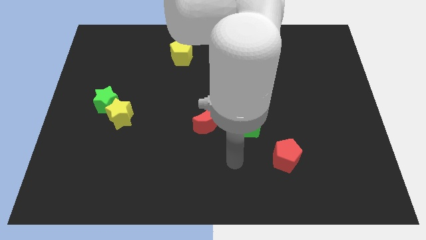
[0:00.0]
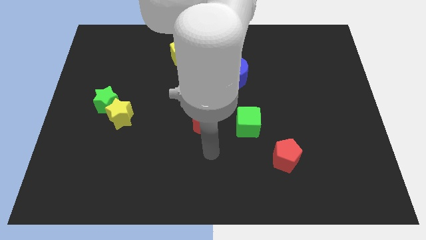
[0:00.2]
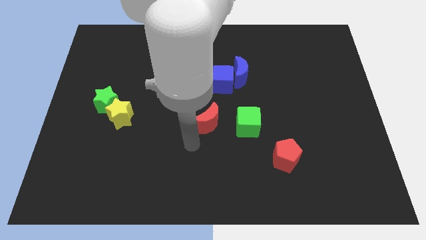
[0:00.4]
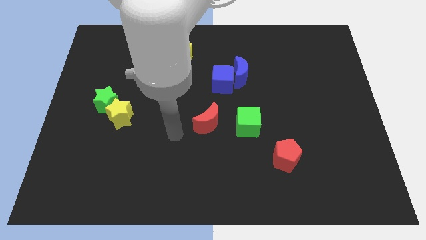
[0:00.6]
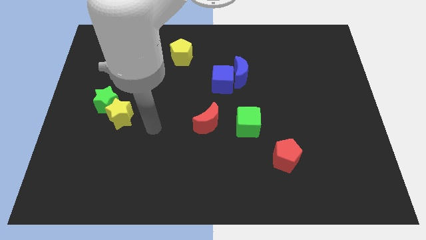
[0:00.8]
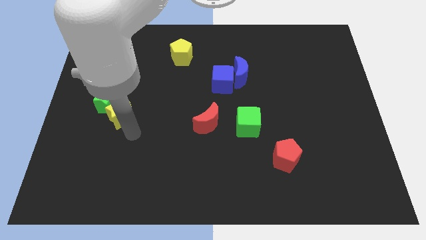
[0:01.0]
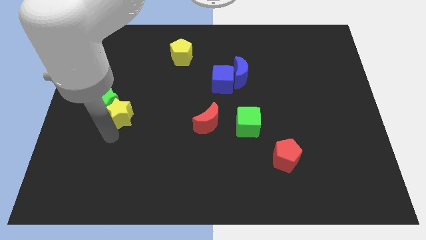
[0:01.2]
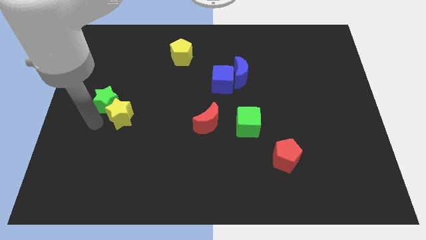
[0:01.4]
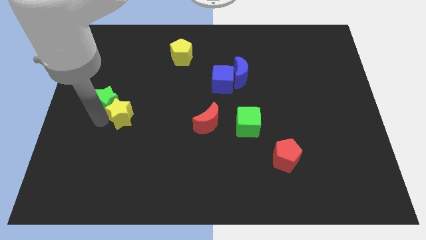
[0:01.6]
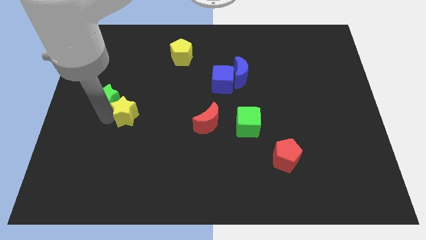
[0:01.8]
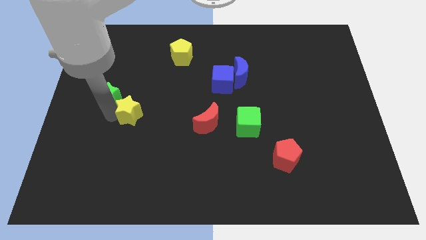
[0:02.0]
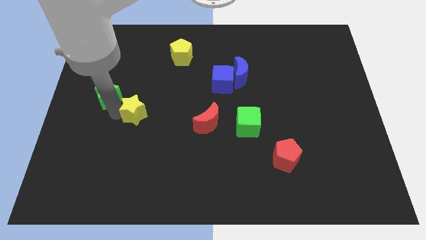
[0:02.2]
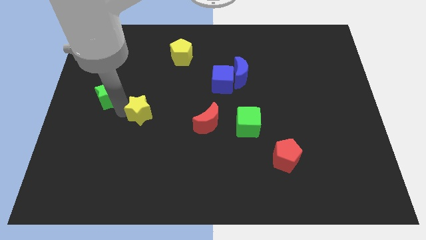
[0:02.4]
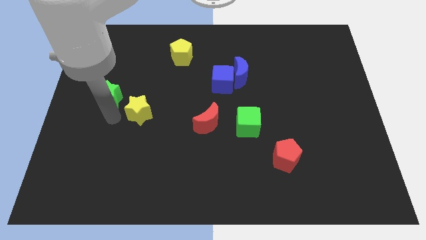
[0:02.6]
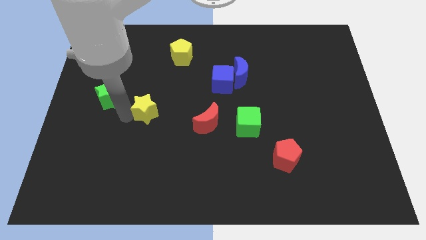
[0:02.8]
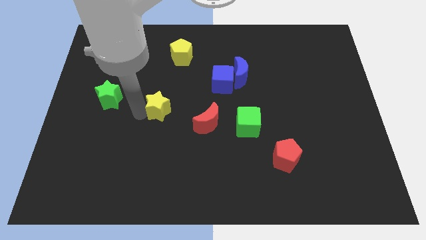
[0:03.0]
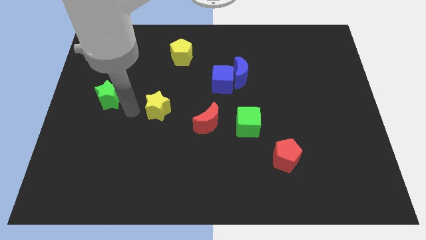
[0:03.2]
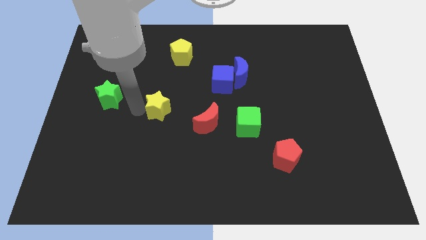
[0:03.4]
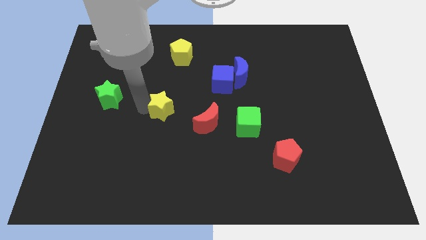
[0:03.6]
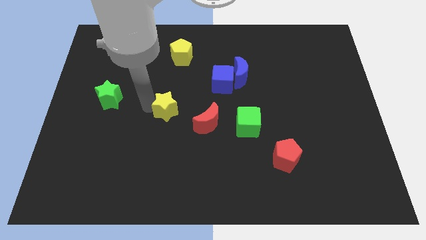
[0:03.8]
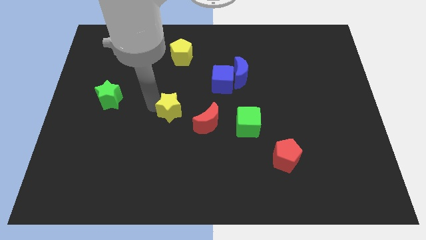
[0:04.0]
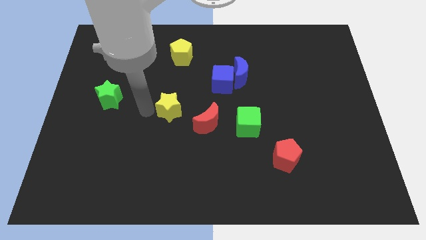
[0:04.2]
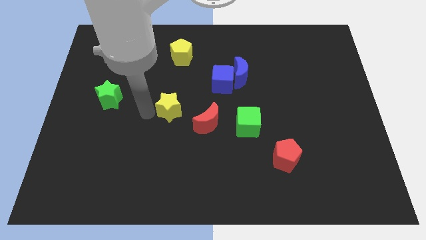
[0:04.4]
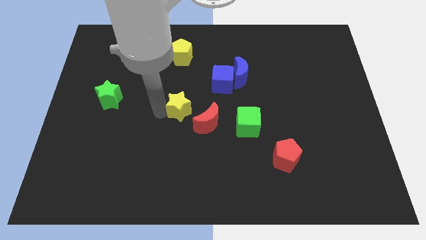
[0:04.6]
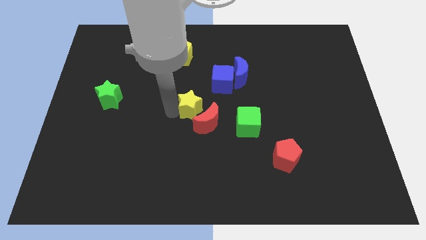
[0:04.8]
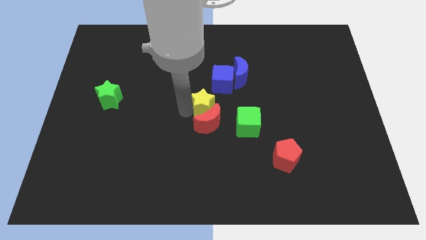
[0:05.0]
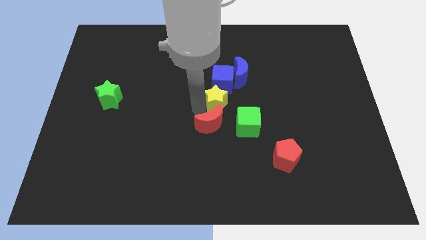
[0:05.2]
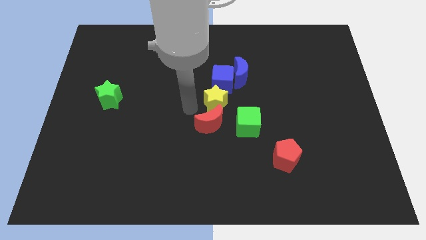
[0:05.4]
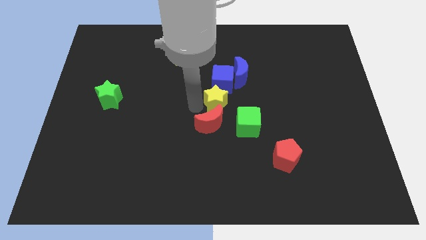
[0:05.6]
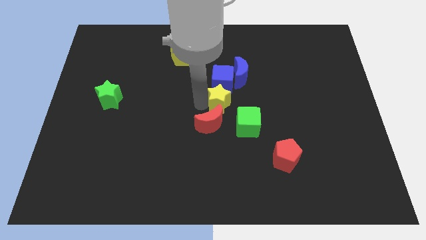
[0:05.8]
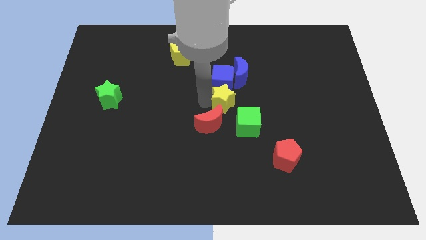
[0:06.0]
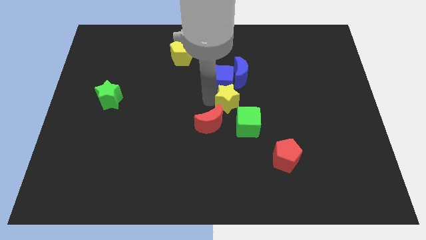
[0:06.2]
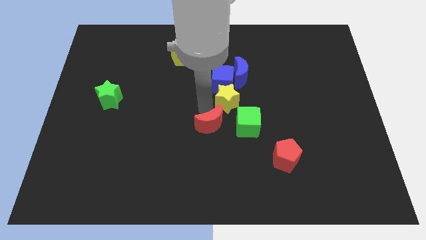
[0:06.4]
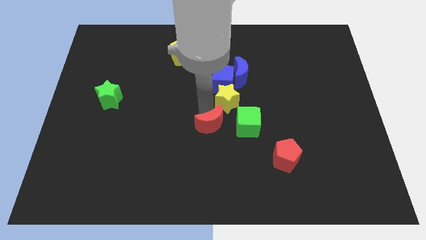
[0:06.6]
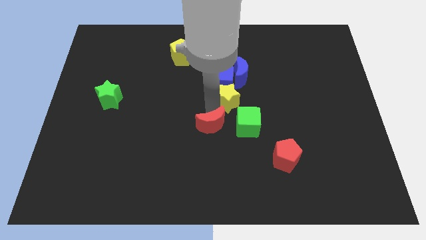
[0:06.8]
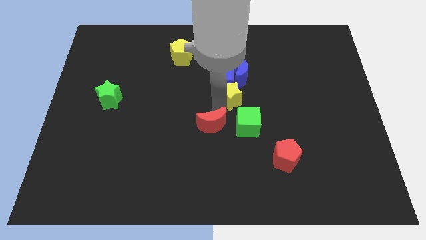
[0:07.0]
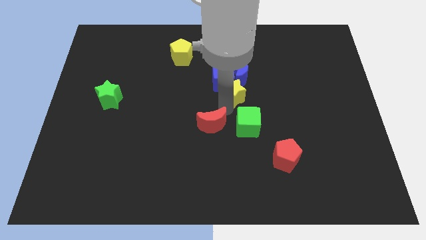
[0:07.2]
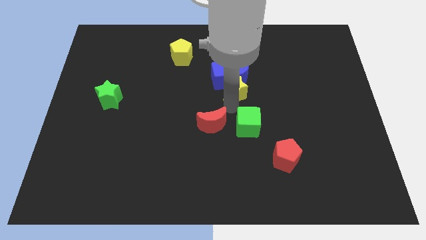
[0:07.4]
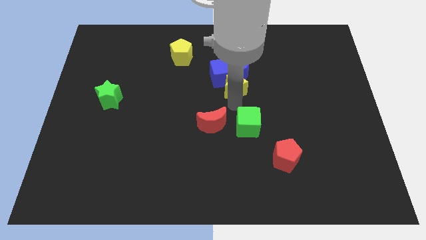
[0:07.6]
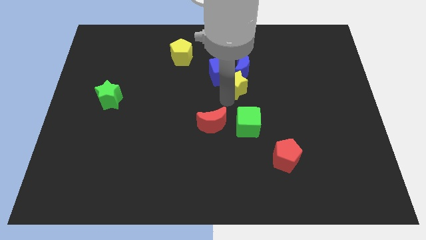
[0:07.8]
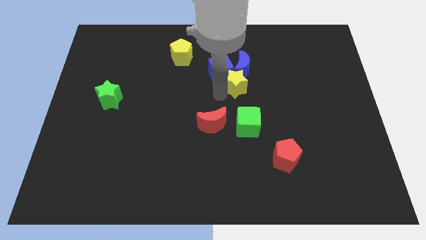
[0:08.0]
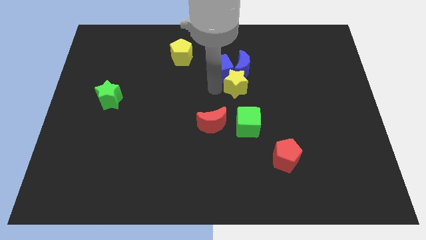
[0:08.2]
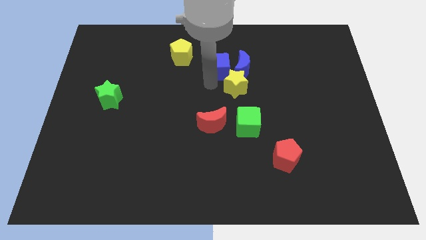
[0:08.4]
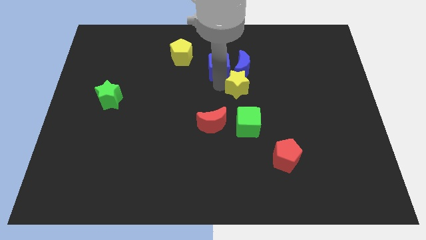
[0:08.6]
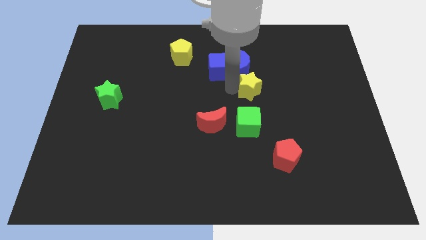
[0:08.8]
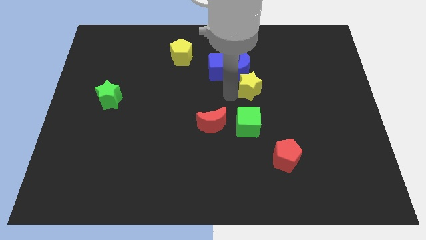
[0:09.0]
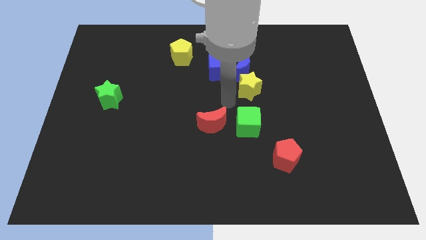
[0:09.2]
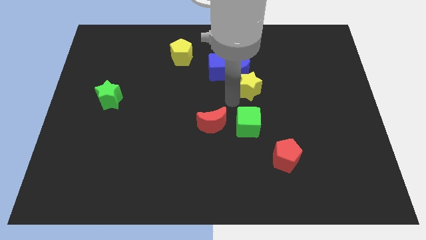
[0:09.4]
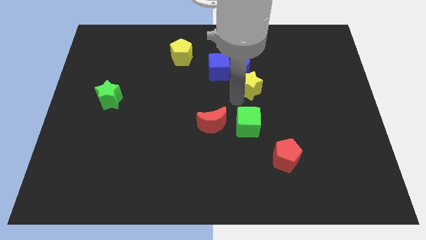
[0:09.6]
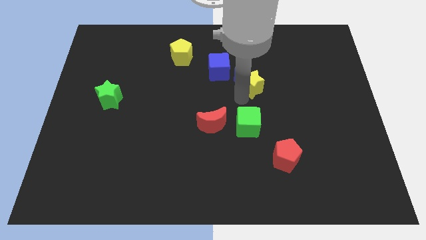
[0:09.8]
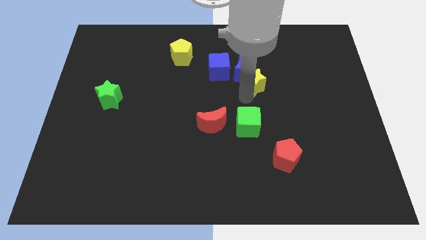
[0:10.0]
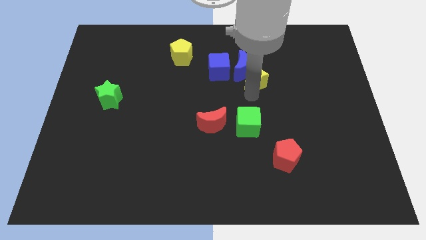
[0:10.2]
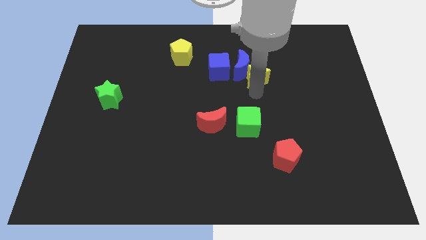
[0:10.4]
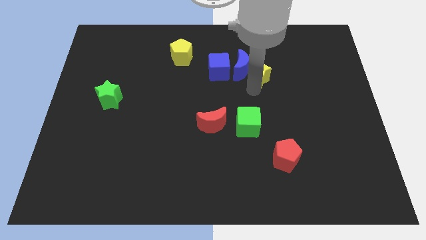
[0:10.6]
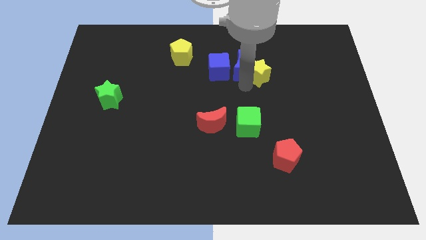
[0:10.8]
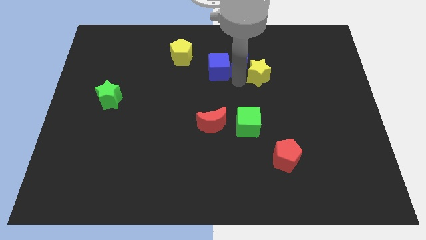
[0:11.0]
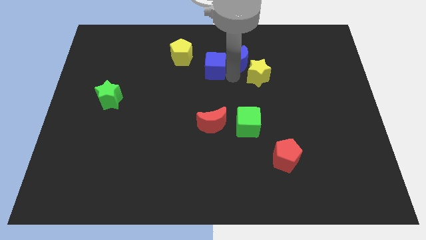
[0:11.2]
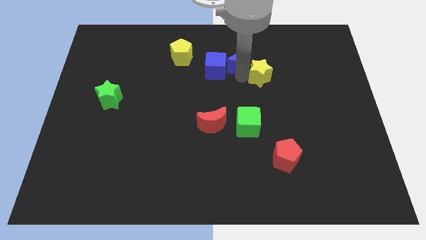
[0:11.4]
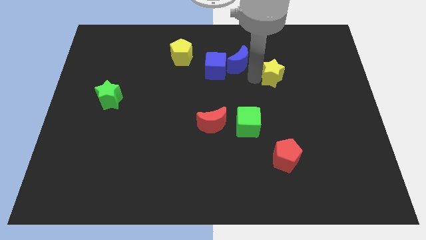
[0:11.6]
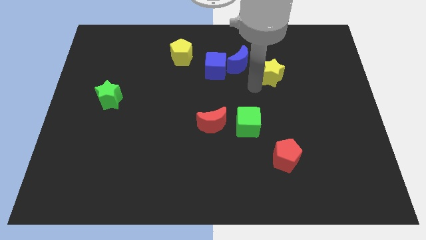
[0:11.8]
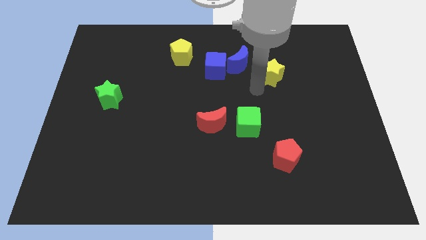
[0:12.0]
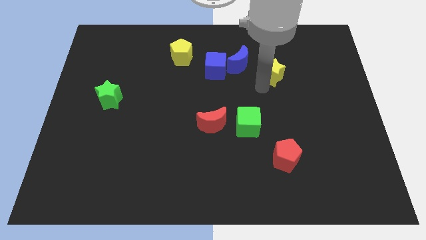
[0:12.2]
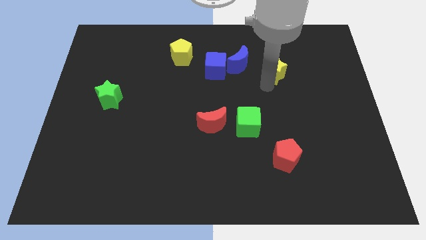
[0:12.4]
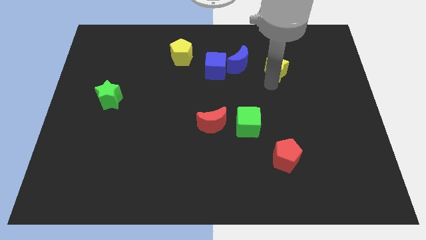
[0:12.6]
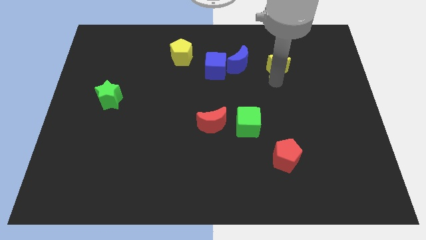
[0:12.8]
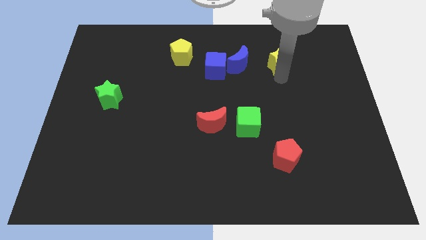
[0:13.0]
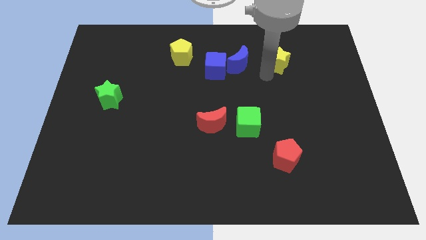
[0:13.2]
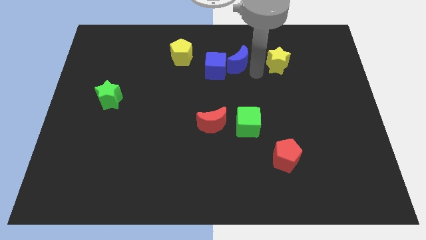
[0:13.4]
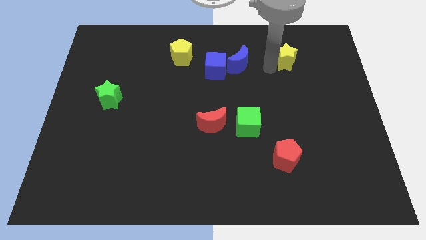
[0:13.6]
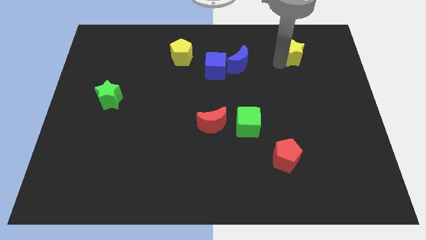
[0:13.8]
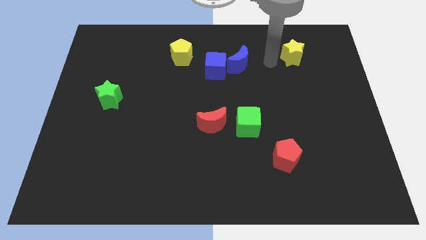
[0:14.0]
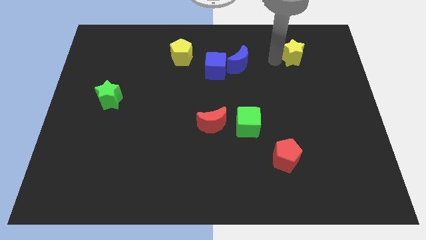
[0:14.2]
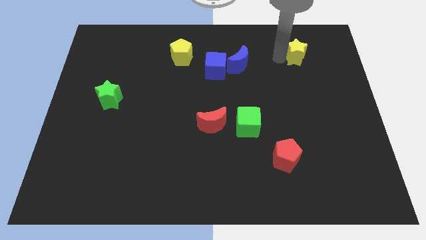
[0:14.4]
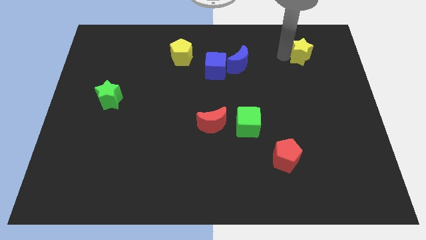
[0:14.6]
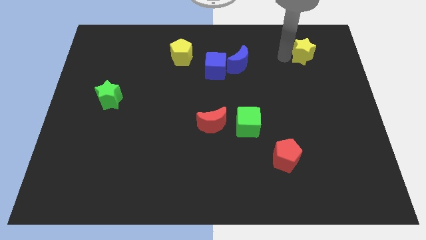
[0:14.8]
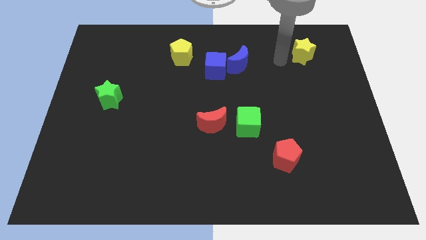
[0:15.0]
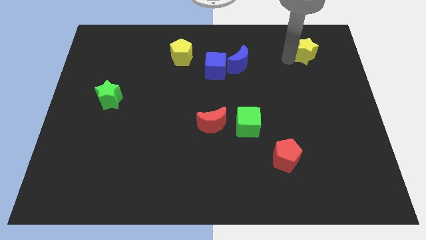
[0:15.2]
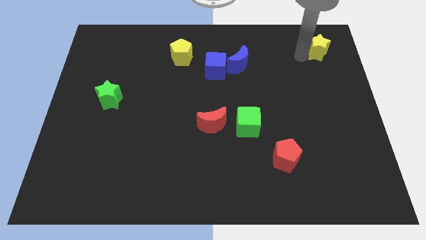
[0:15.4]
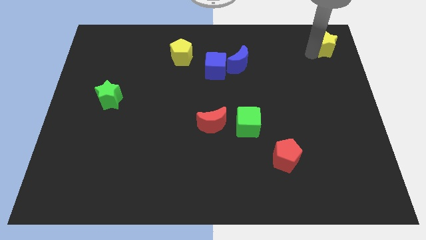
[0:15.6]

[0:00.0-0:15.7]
put the yellow star to the top right
